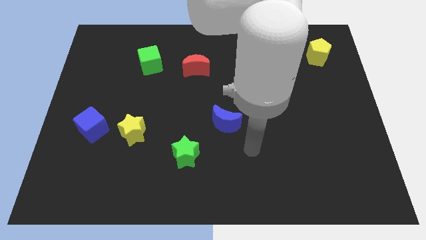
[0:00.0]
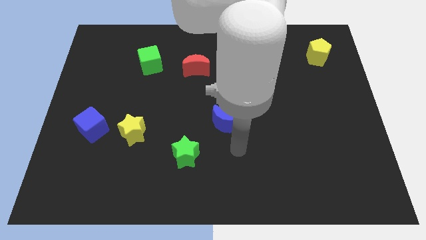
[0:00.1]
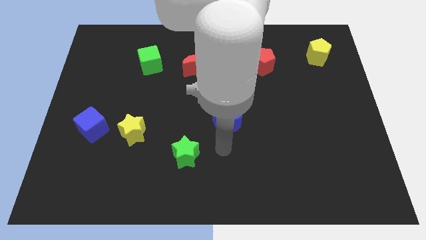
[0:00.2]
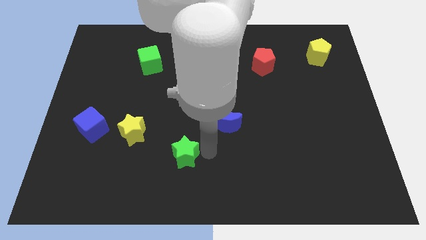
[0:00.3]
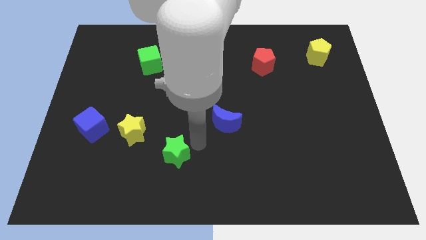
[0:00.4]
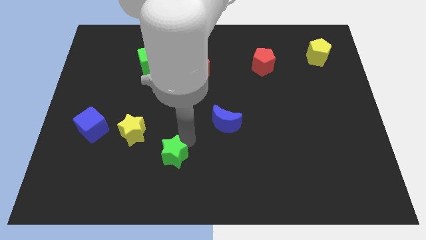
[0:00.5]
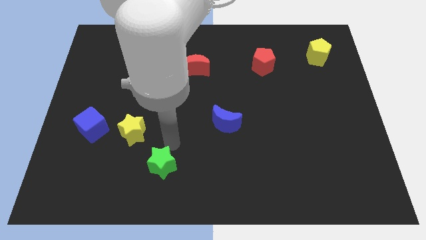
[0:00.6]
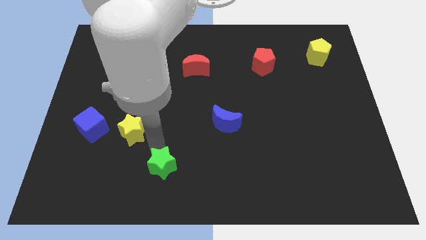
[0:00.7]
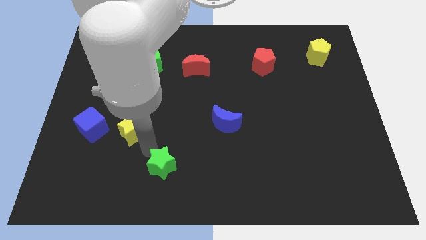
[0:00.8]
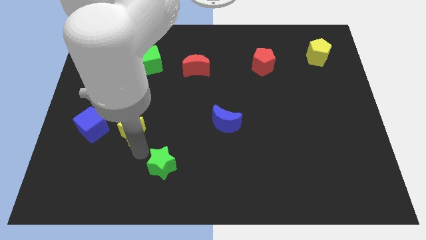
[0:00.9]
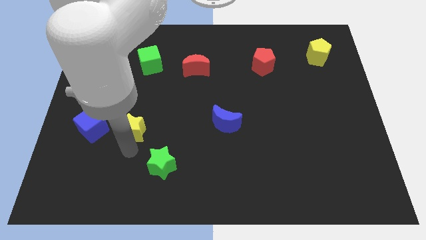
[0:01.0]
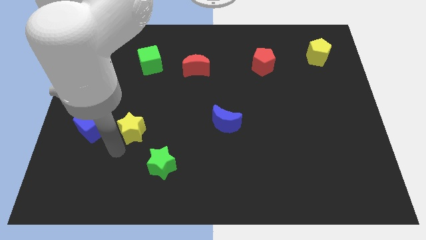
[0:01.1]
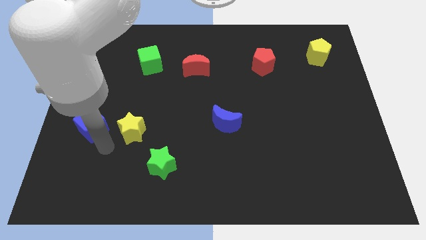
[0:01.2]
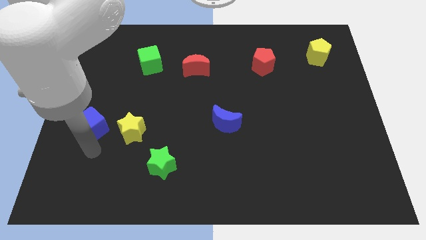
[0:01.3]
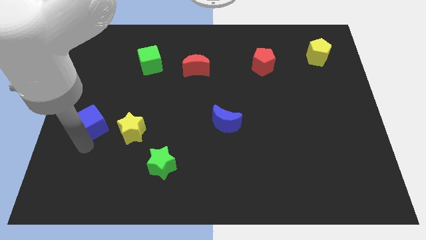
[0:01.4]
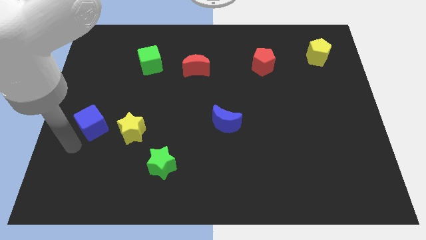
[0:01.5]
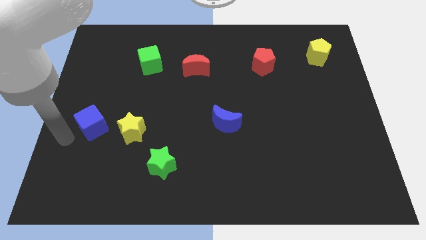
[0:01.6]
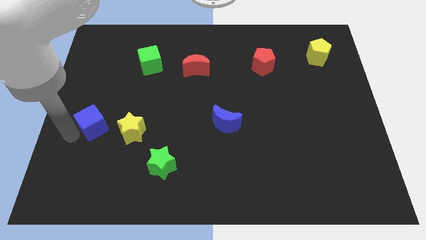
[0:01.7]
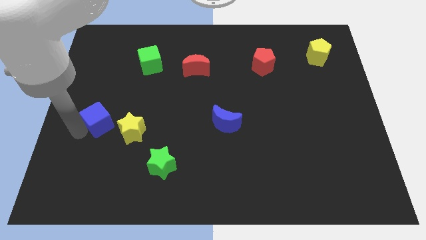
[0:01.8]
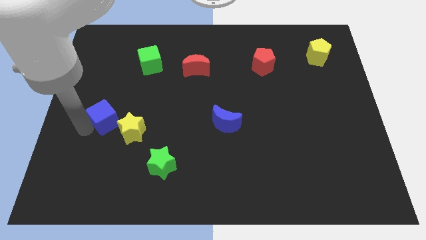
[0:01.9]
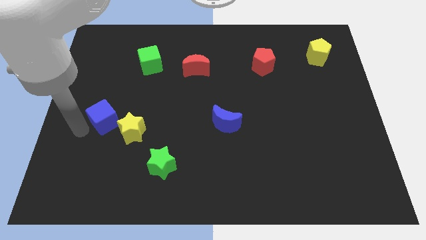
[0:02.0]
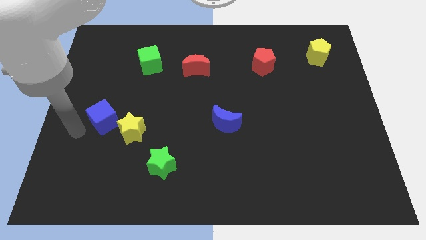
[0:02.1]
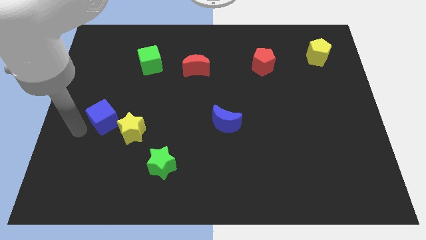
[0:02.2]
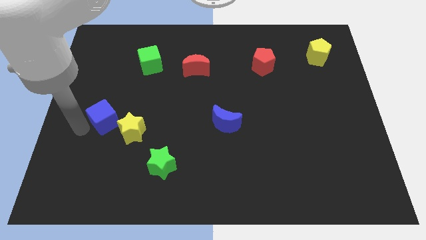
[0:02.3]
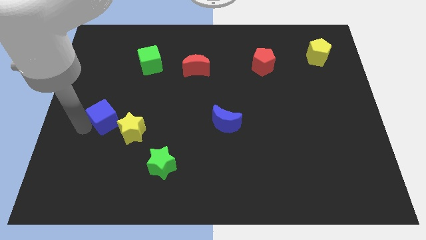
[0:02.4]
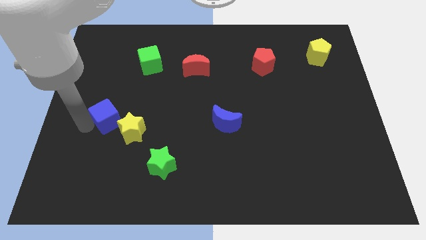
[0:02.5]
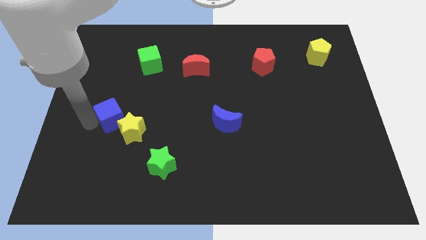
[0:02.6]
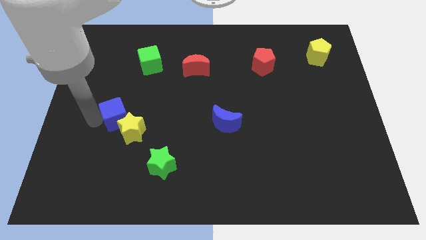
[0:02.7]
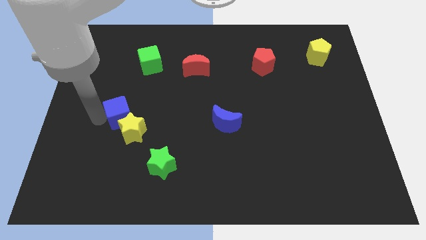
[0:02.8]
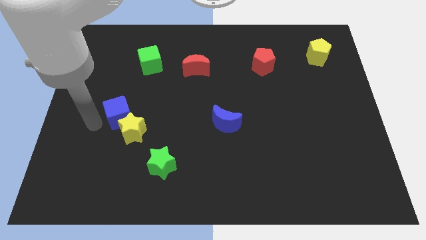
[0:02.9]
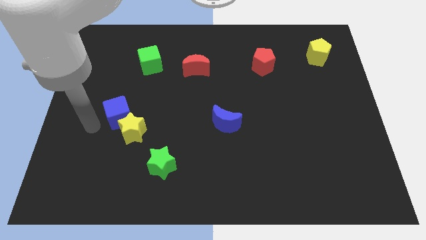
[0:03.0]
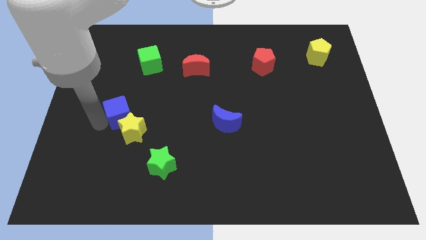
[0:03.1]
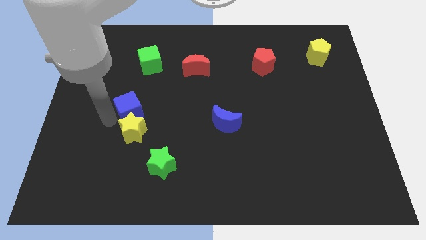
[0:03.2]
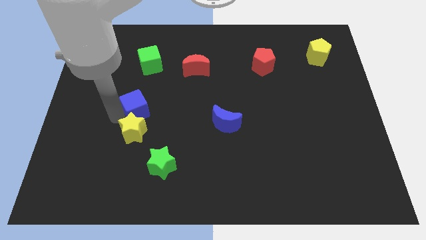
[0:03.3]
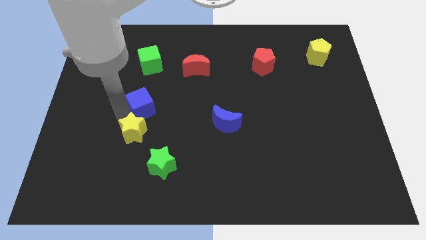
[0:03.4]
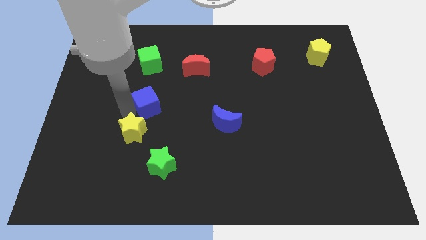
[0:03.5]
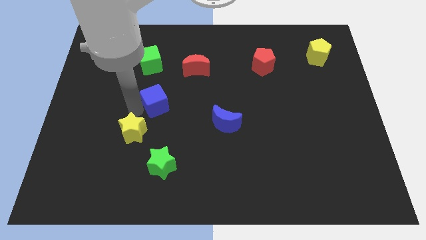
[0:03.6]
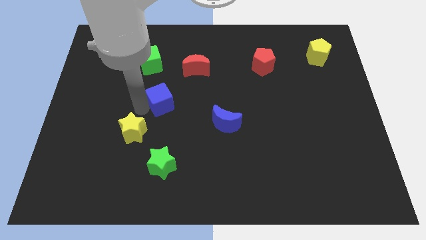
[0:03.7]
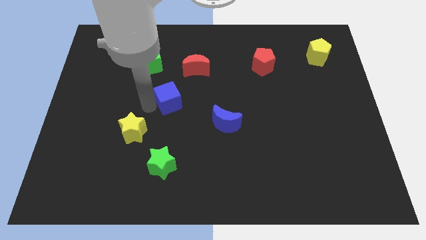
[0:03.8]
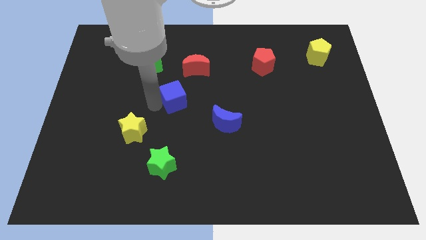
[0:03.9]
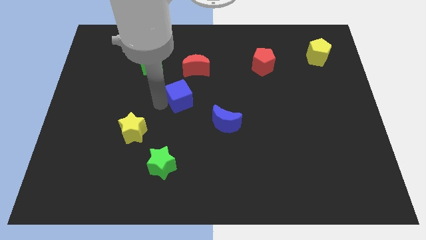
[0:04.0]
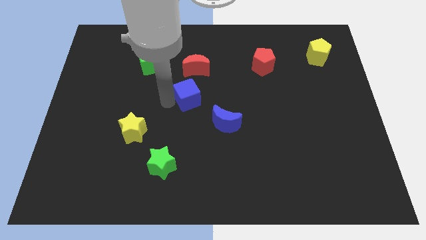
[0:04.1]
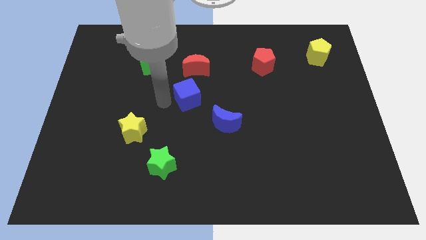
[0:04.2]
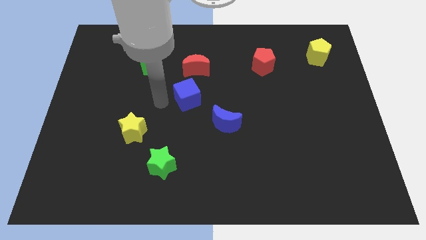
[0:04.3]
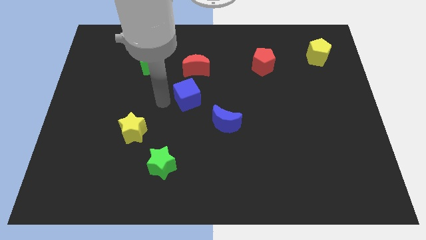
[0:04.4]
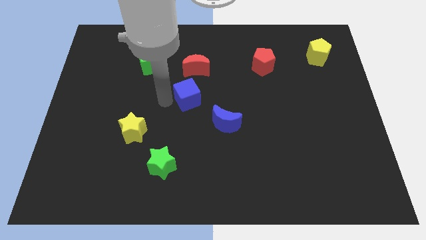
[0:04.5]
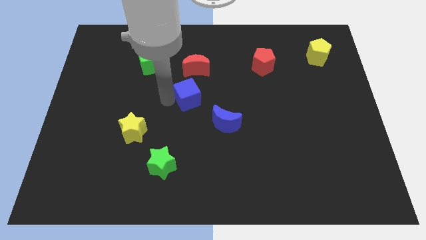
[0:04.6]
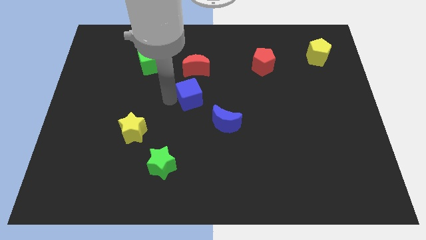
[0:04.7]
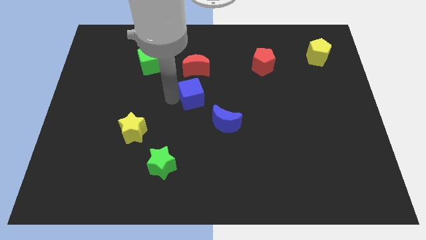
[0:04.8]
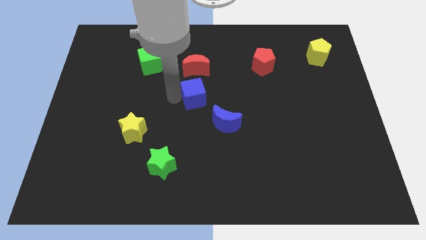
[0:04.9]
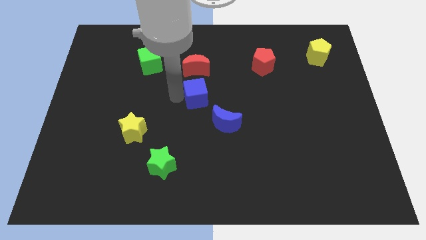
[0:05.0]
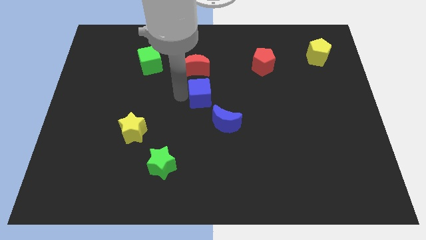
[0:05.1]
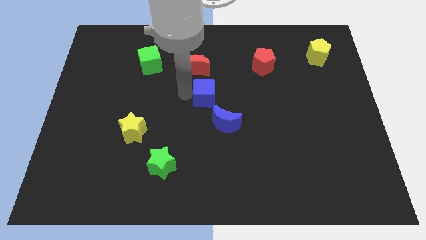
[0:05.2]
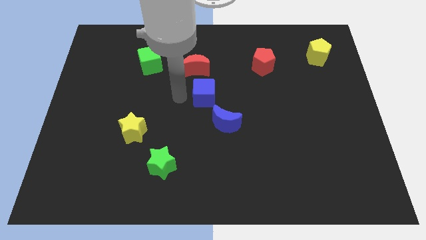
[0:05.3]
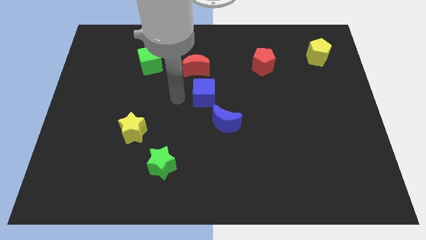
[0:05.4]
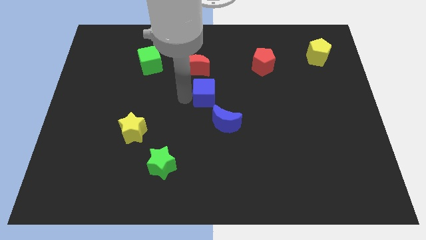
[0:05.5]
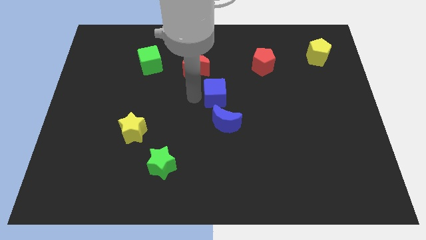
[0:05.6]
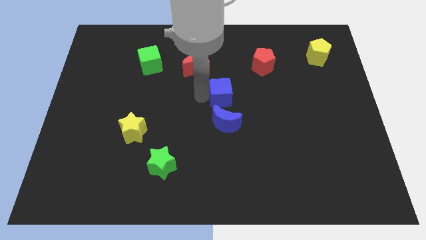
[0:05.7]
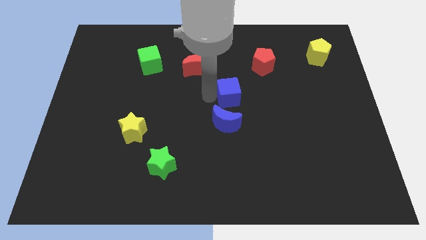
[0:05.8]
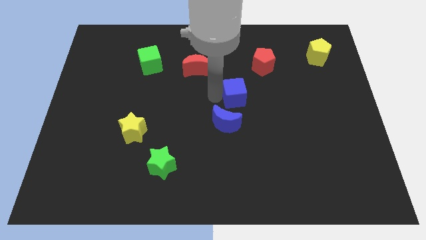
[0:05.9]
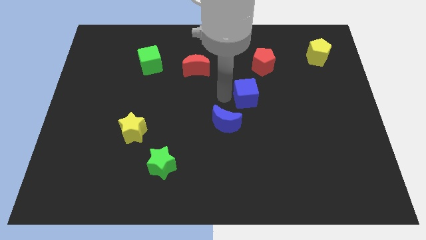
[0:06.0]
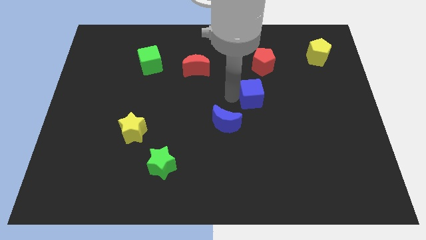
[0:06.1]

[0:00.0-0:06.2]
move the blue cube to the bottom side of the red pentagon
